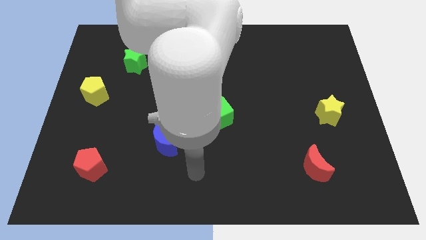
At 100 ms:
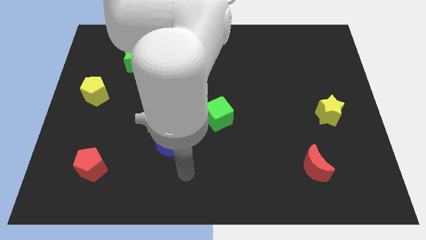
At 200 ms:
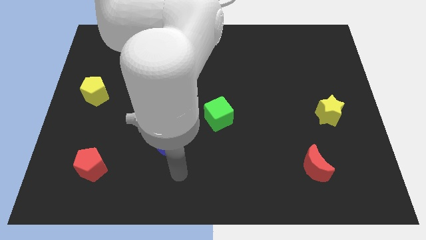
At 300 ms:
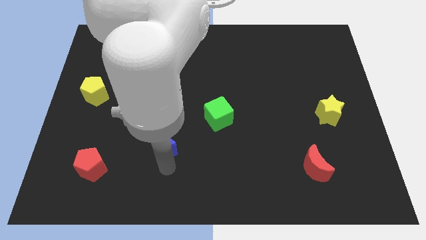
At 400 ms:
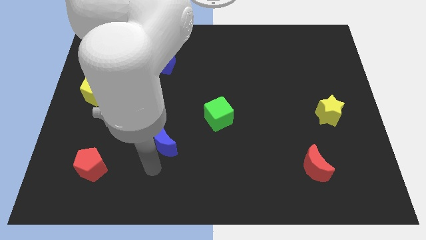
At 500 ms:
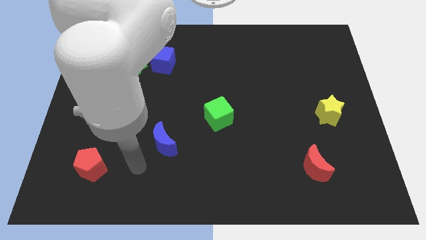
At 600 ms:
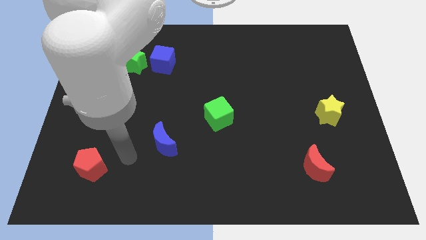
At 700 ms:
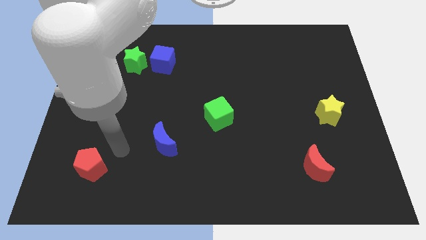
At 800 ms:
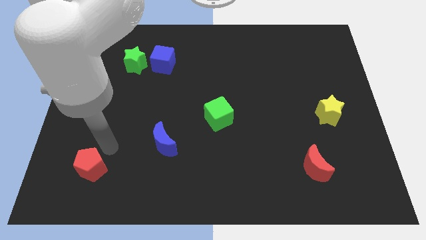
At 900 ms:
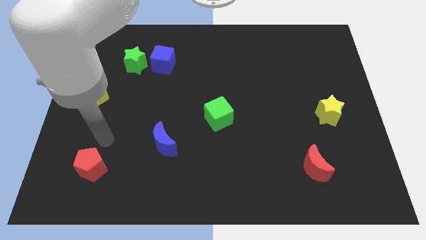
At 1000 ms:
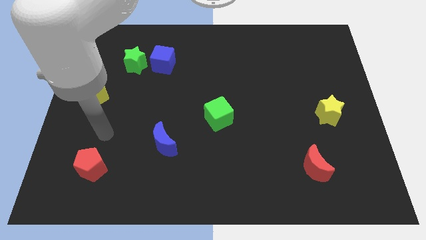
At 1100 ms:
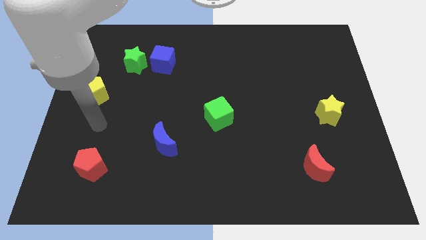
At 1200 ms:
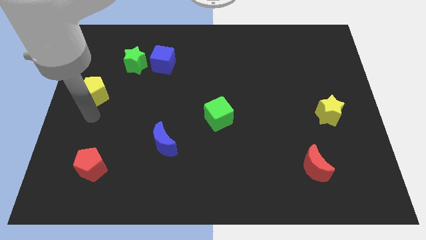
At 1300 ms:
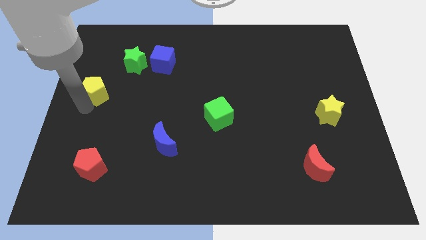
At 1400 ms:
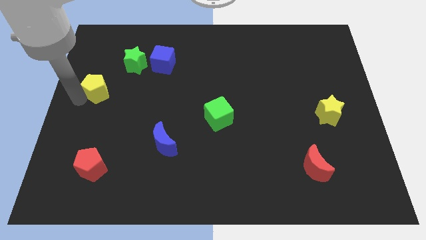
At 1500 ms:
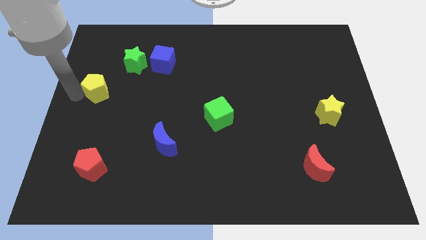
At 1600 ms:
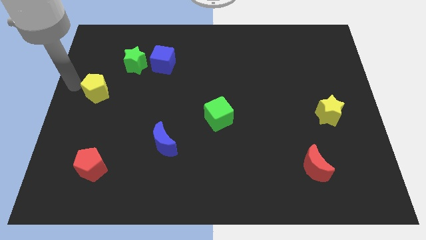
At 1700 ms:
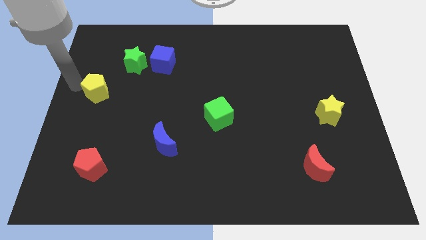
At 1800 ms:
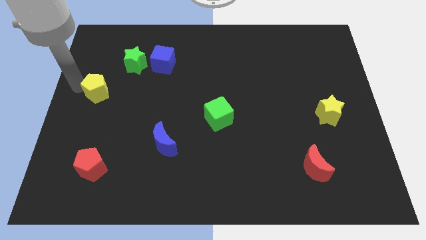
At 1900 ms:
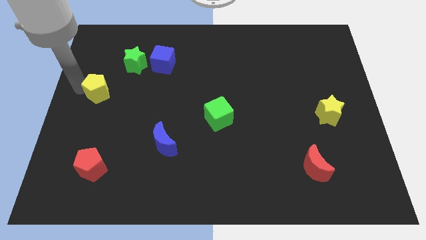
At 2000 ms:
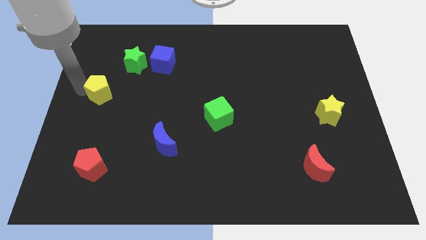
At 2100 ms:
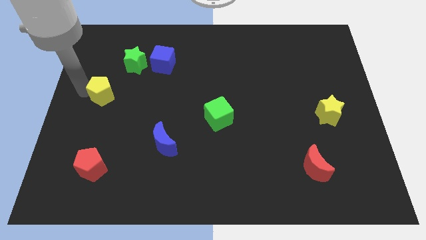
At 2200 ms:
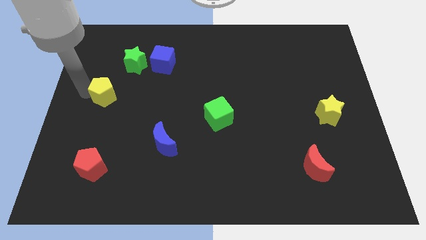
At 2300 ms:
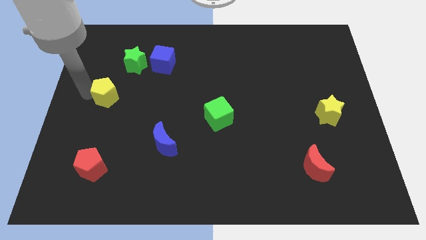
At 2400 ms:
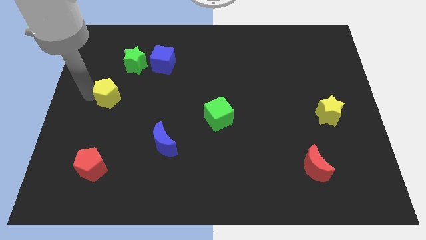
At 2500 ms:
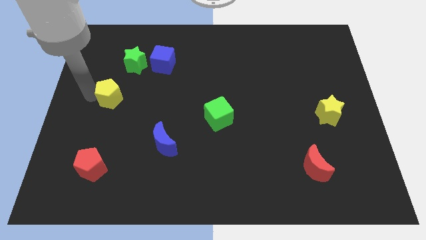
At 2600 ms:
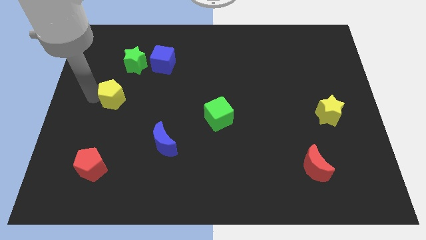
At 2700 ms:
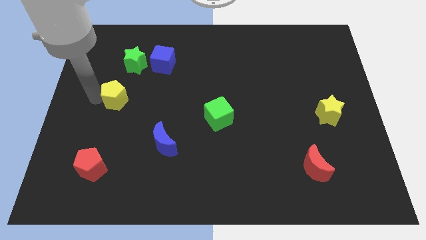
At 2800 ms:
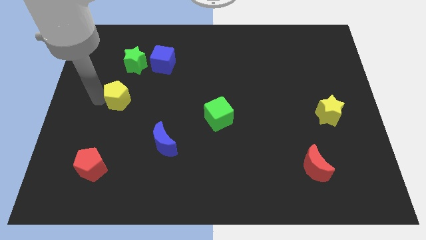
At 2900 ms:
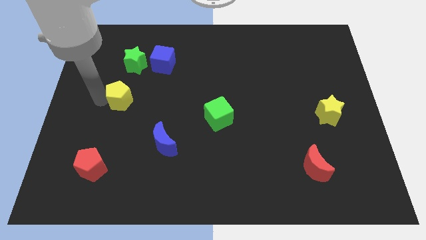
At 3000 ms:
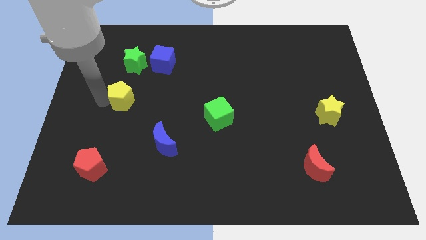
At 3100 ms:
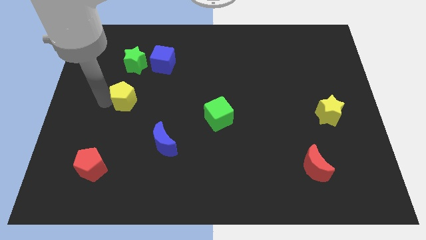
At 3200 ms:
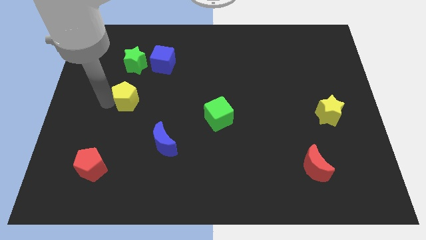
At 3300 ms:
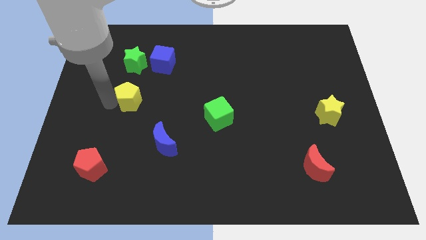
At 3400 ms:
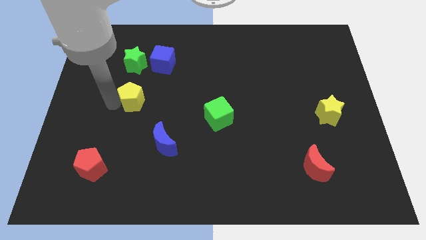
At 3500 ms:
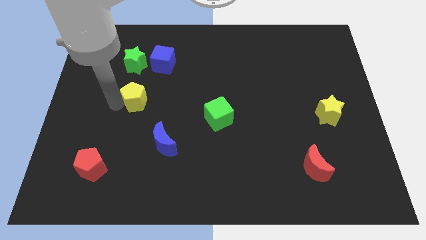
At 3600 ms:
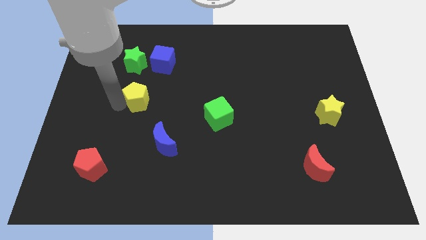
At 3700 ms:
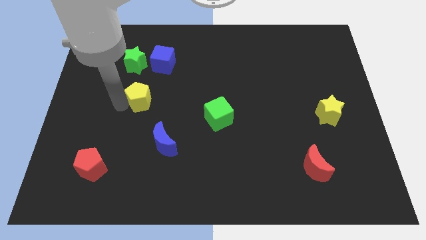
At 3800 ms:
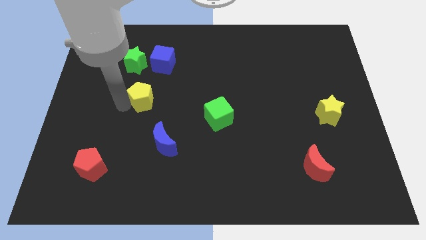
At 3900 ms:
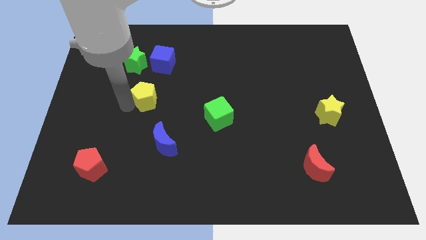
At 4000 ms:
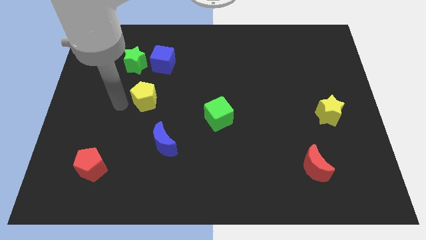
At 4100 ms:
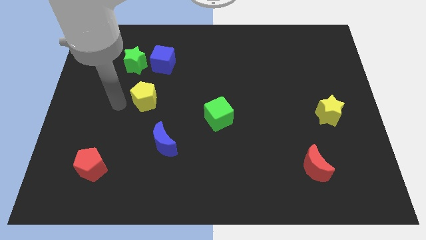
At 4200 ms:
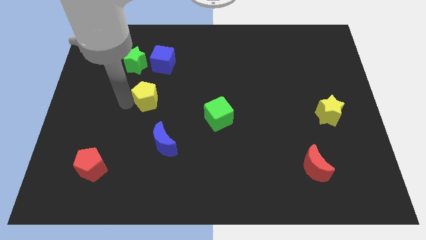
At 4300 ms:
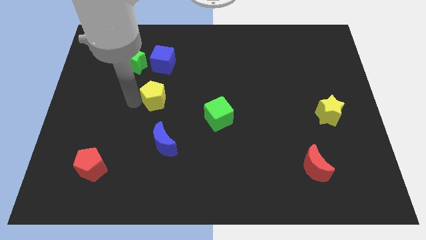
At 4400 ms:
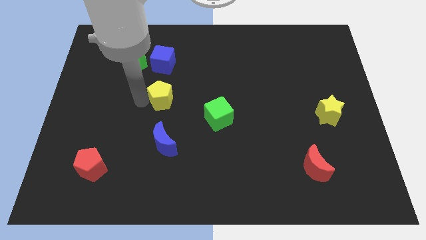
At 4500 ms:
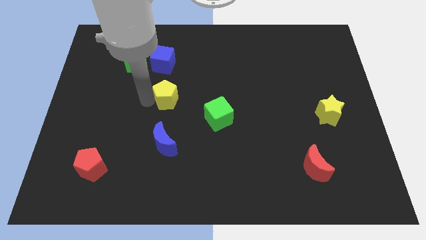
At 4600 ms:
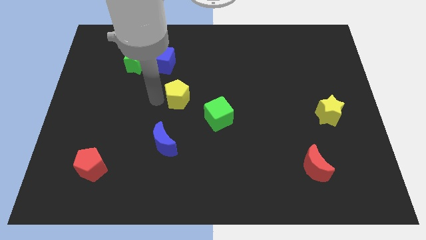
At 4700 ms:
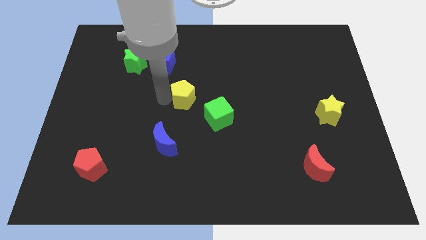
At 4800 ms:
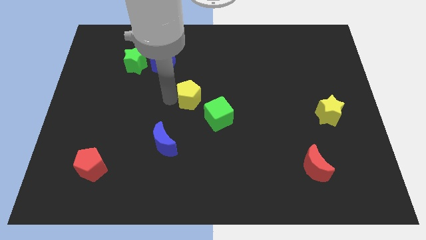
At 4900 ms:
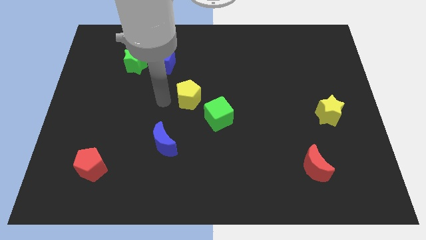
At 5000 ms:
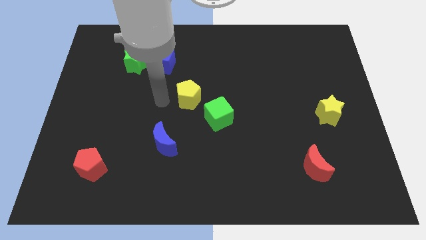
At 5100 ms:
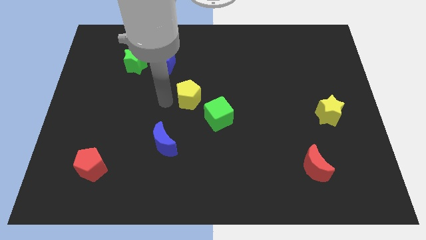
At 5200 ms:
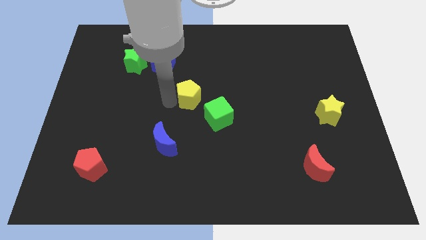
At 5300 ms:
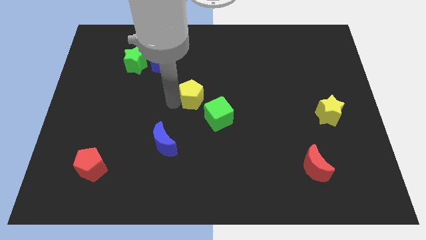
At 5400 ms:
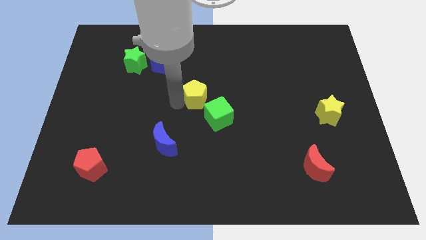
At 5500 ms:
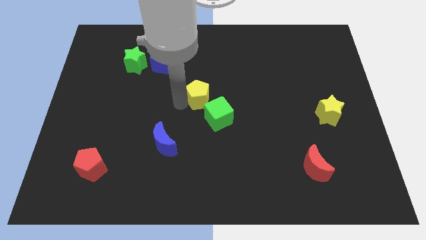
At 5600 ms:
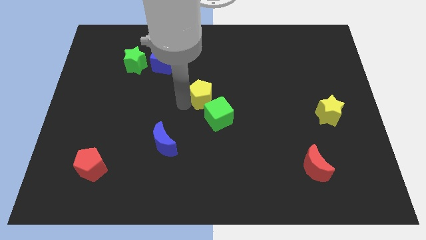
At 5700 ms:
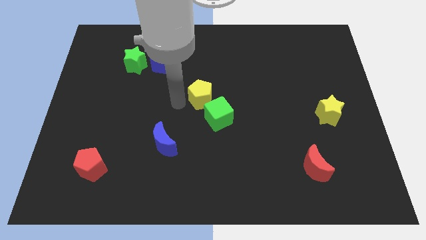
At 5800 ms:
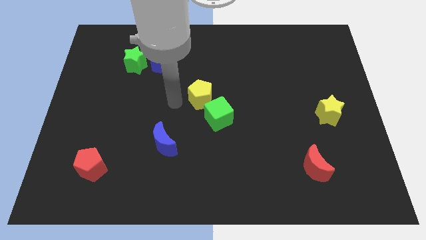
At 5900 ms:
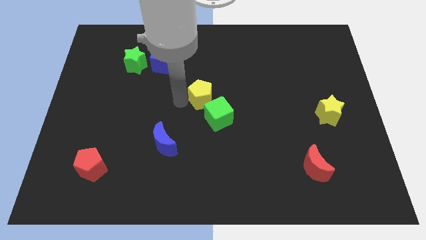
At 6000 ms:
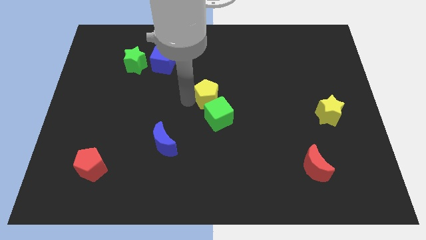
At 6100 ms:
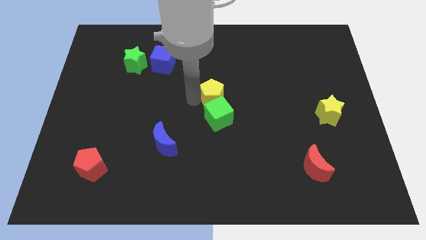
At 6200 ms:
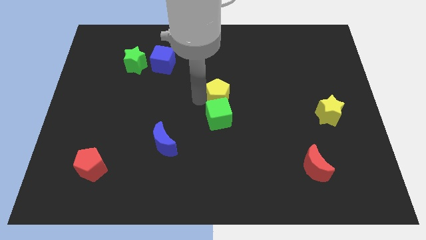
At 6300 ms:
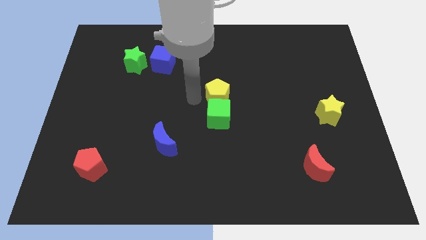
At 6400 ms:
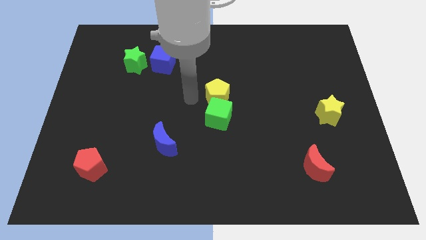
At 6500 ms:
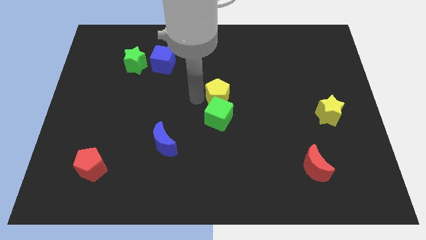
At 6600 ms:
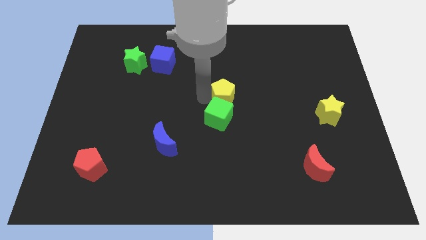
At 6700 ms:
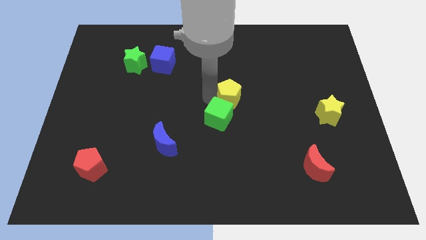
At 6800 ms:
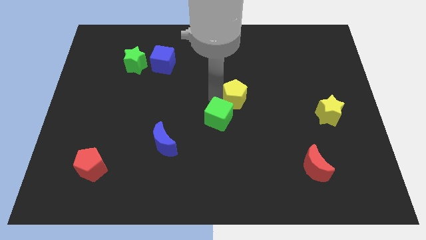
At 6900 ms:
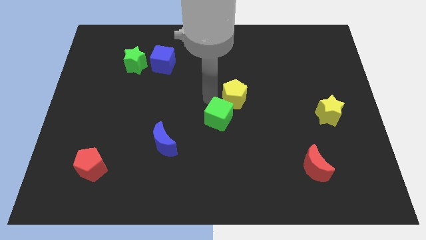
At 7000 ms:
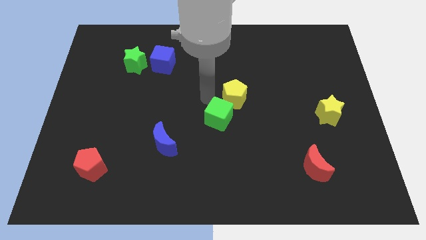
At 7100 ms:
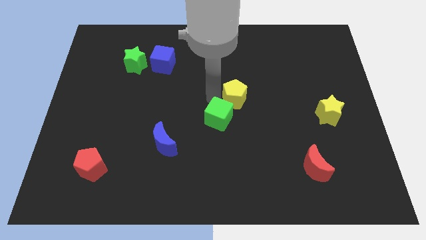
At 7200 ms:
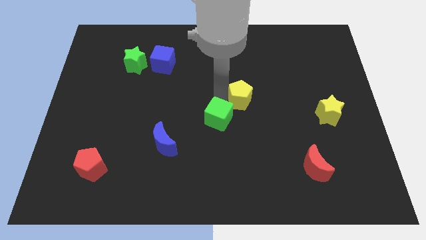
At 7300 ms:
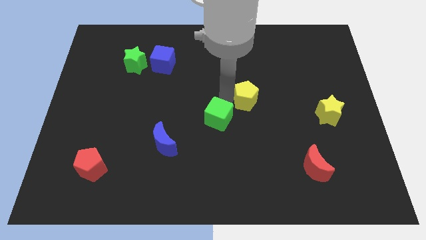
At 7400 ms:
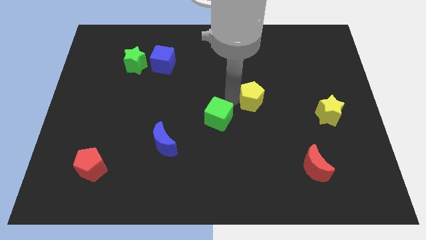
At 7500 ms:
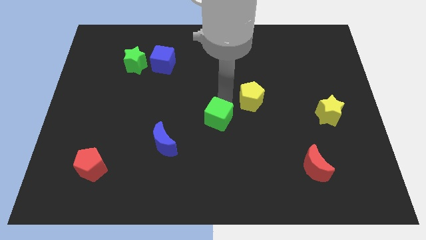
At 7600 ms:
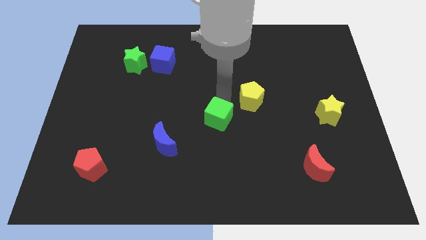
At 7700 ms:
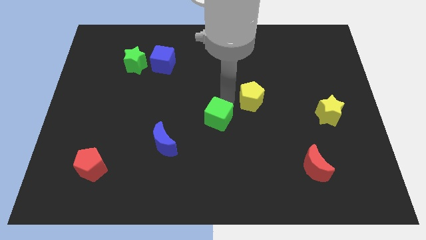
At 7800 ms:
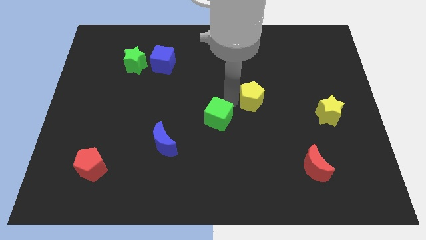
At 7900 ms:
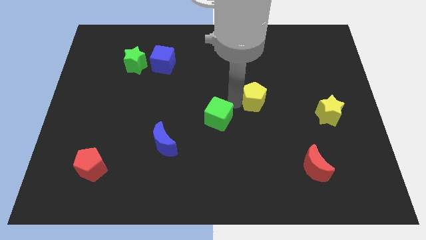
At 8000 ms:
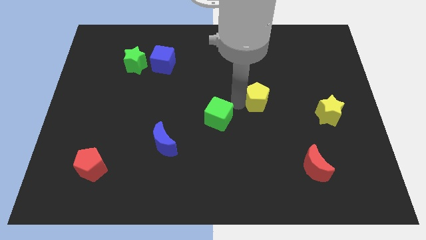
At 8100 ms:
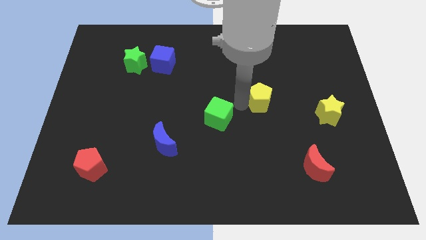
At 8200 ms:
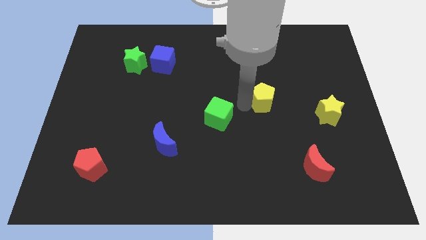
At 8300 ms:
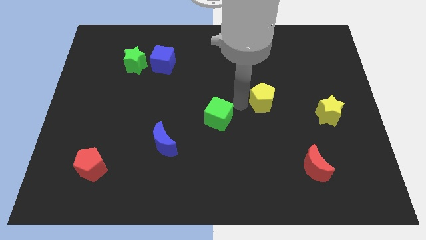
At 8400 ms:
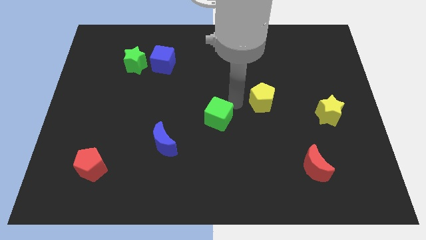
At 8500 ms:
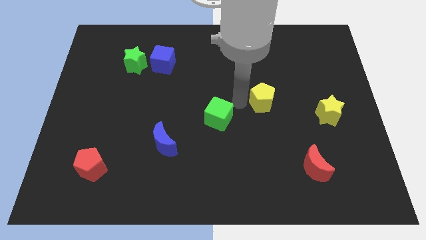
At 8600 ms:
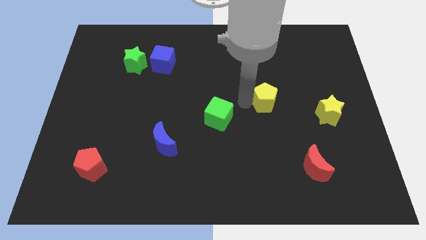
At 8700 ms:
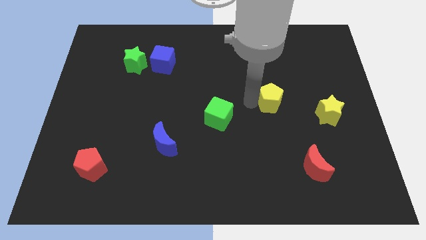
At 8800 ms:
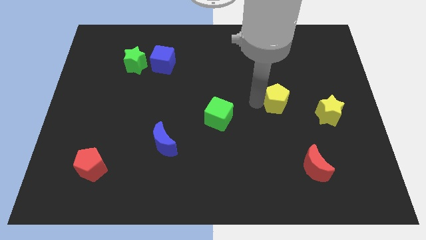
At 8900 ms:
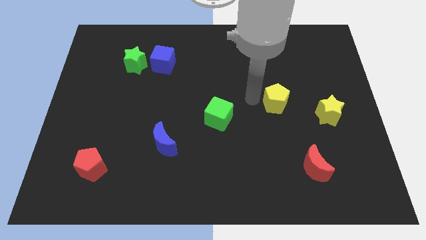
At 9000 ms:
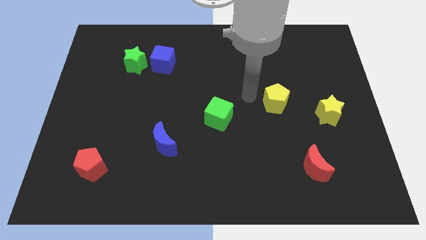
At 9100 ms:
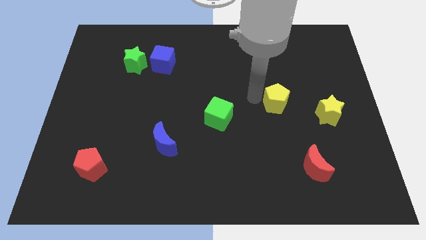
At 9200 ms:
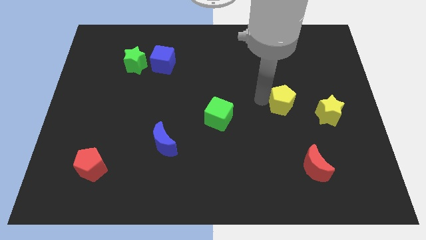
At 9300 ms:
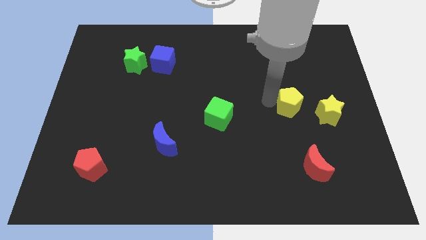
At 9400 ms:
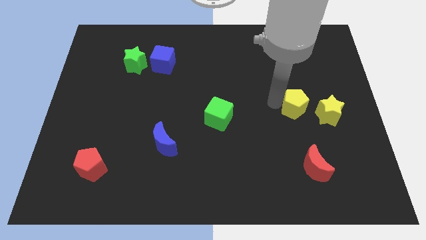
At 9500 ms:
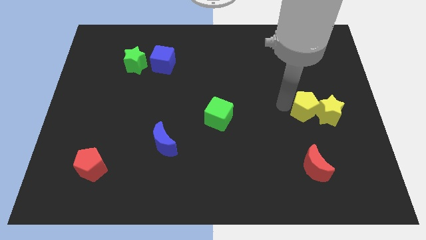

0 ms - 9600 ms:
slide the yellow pentagon towards the yellow star
